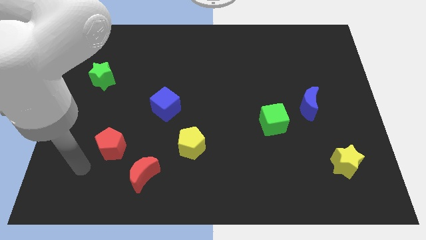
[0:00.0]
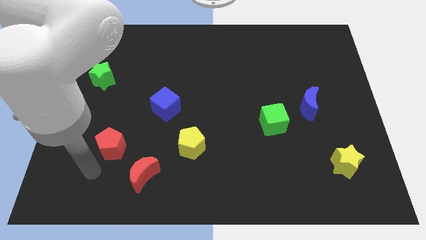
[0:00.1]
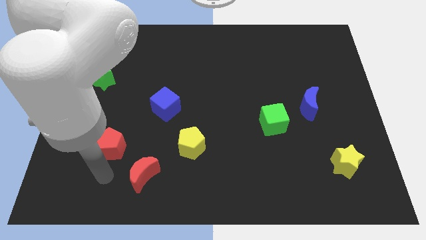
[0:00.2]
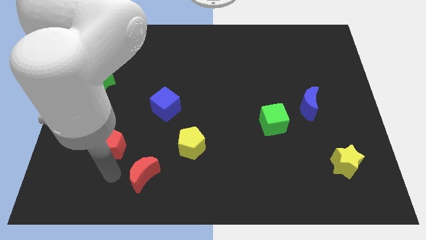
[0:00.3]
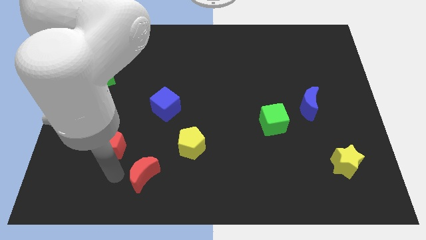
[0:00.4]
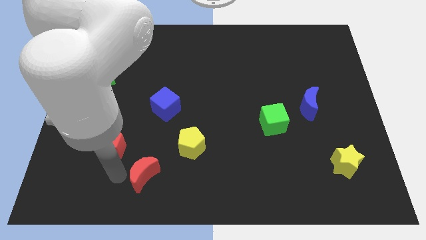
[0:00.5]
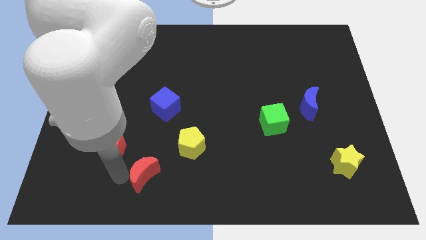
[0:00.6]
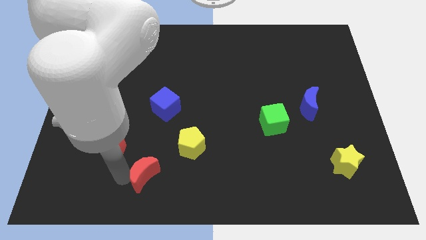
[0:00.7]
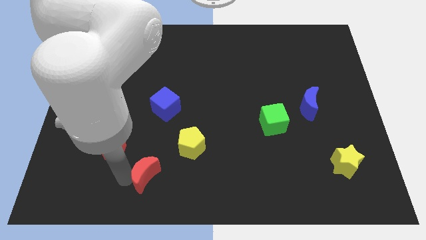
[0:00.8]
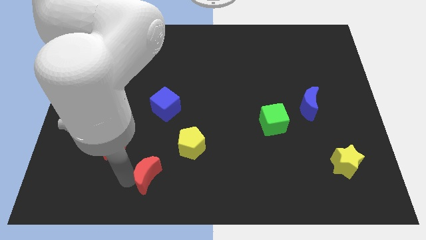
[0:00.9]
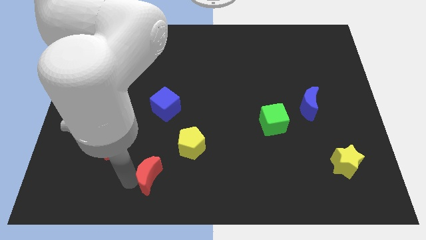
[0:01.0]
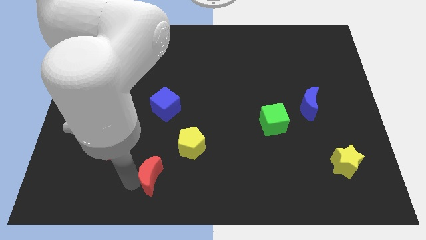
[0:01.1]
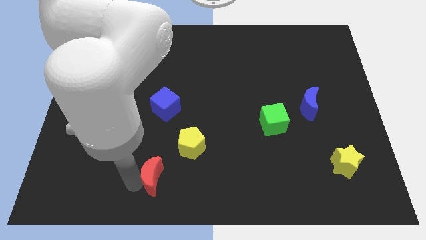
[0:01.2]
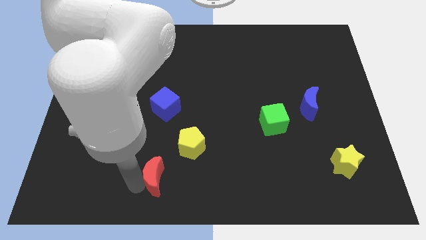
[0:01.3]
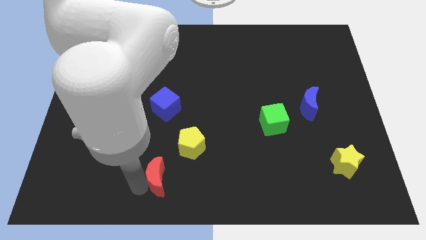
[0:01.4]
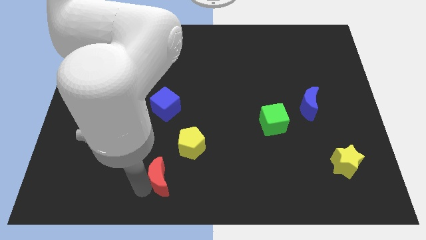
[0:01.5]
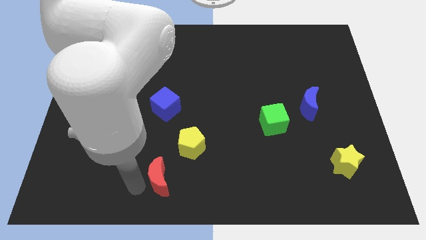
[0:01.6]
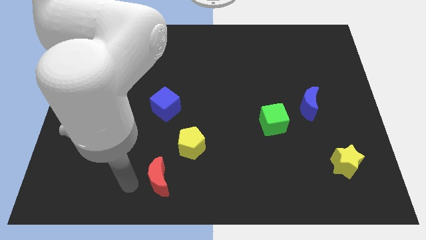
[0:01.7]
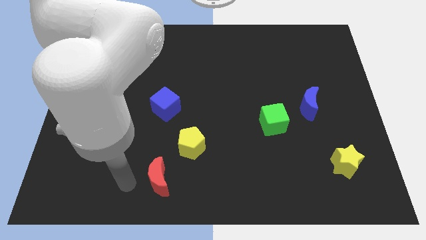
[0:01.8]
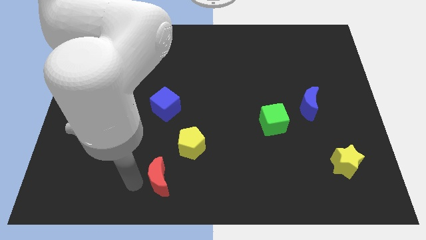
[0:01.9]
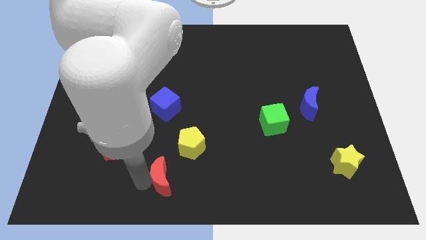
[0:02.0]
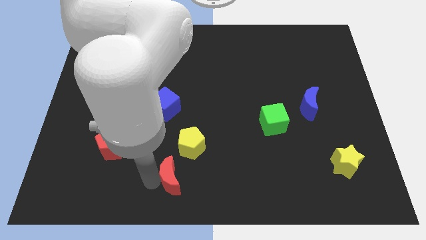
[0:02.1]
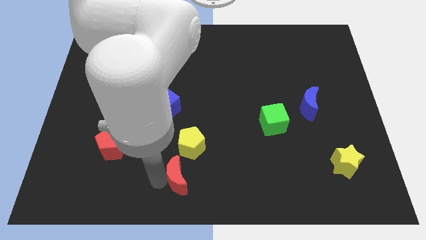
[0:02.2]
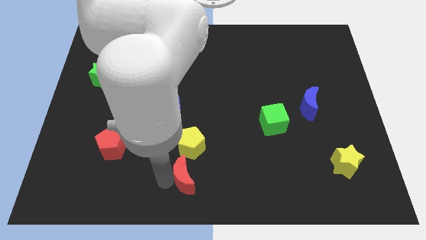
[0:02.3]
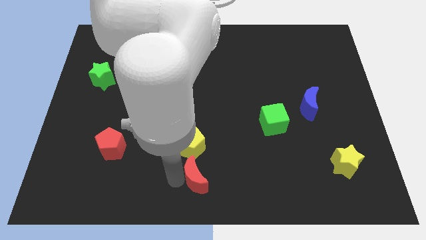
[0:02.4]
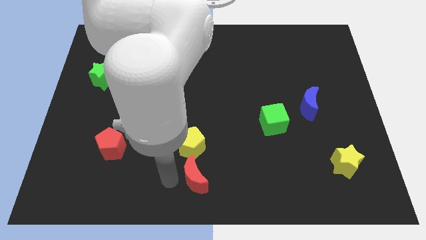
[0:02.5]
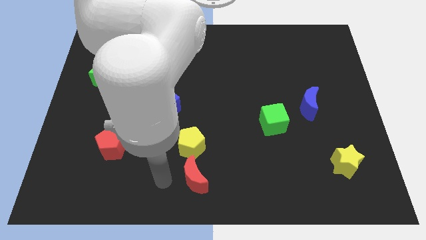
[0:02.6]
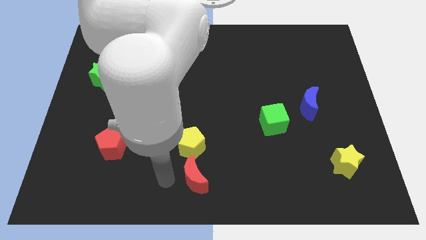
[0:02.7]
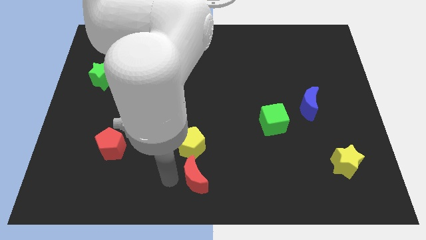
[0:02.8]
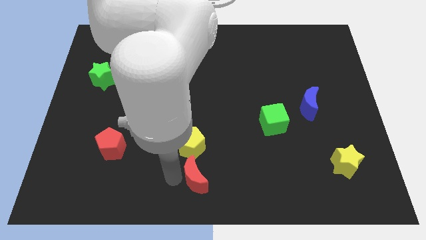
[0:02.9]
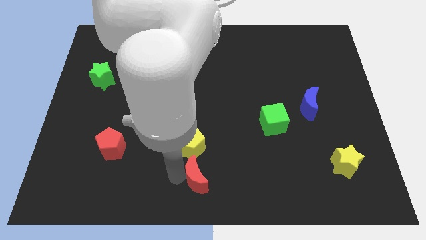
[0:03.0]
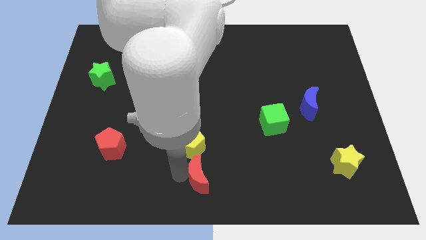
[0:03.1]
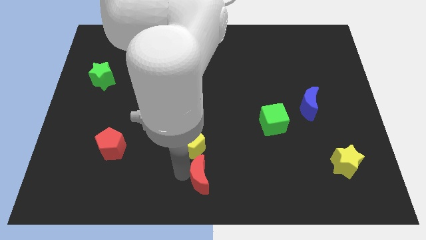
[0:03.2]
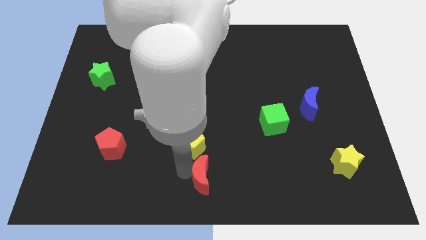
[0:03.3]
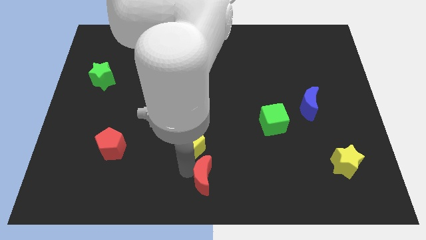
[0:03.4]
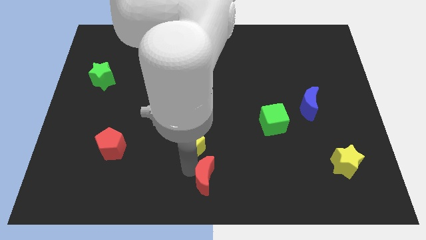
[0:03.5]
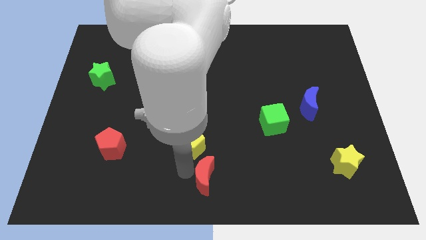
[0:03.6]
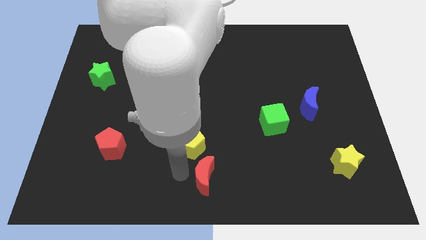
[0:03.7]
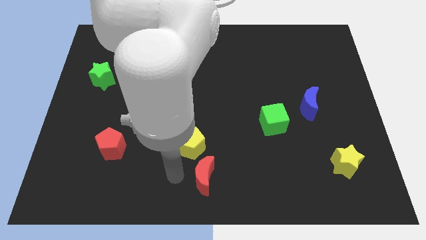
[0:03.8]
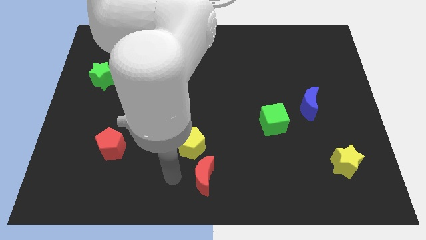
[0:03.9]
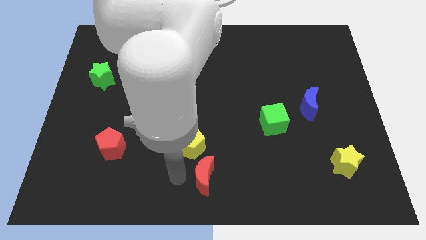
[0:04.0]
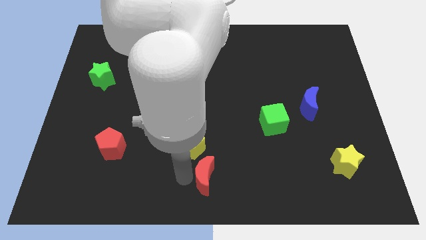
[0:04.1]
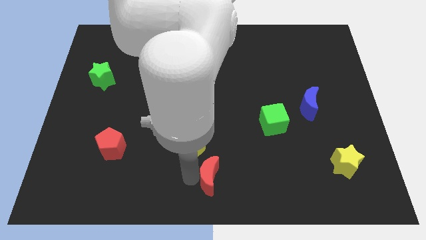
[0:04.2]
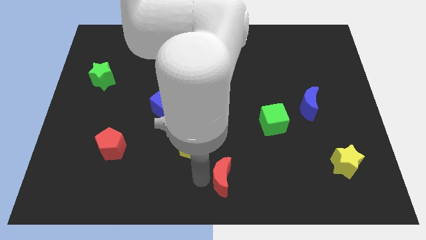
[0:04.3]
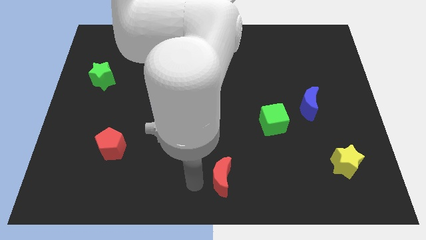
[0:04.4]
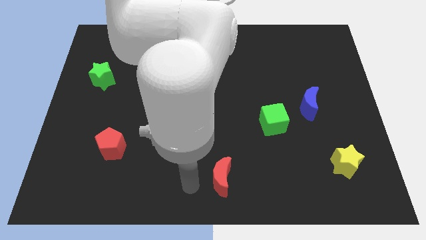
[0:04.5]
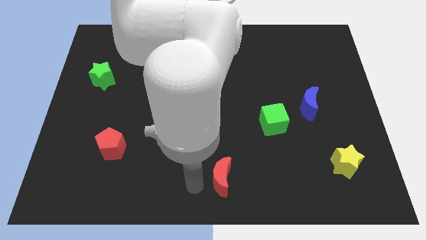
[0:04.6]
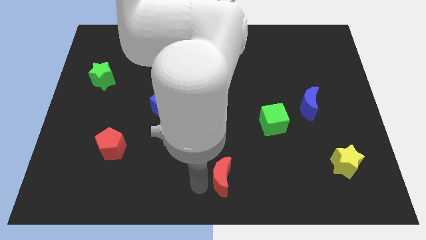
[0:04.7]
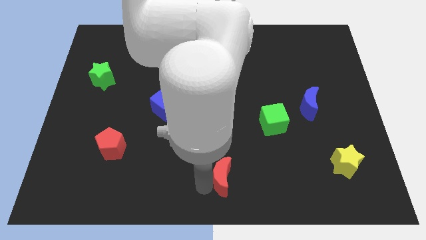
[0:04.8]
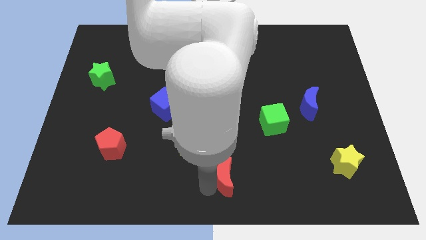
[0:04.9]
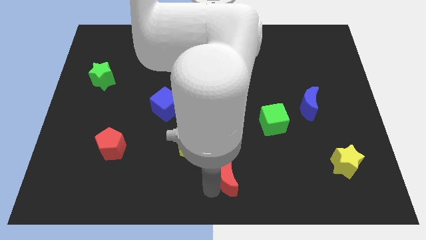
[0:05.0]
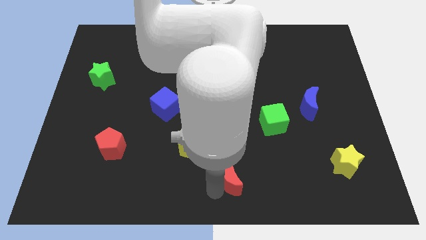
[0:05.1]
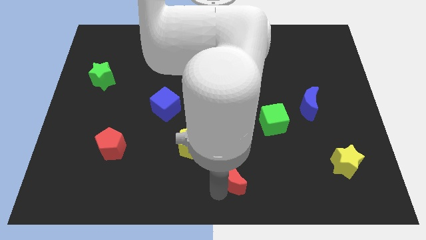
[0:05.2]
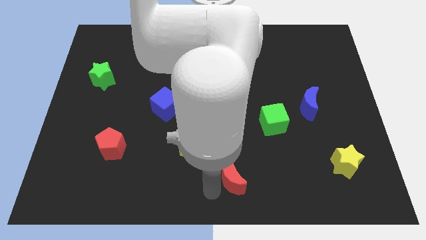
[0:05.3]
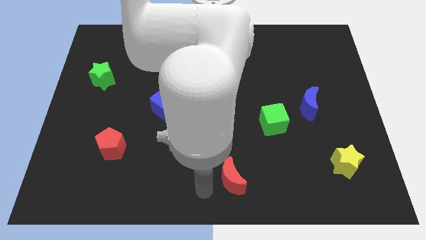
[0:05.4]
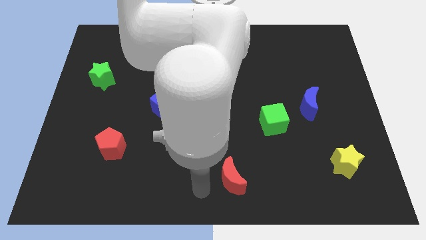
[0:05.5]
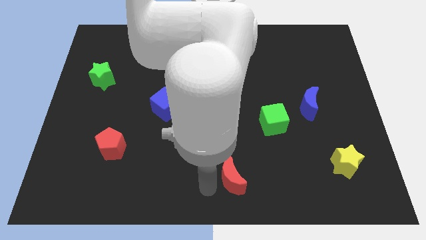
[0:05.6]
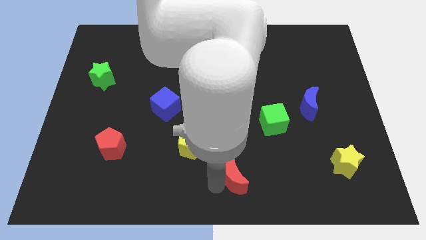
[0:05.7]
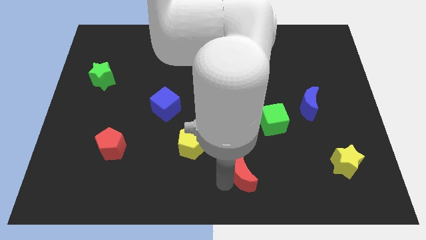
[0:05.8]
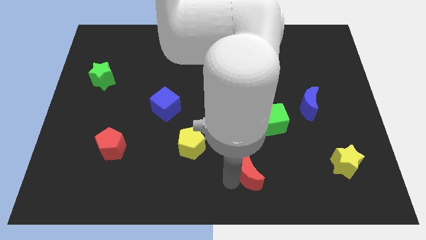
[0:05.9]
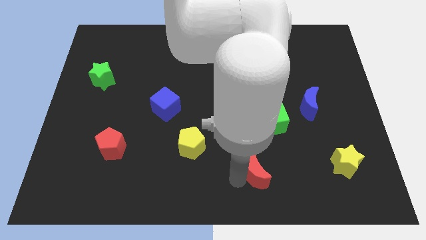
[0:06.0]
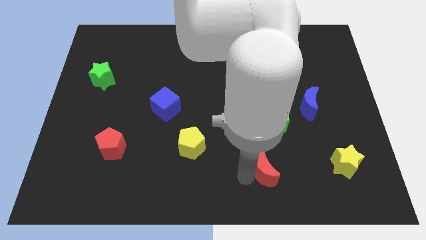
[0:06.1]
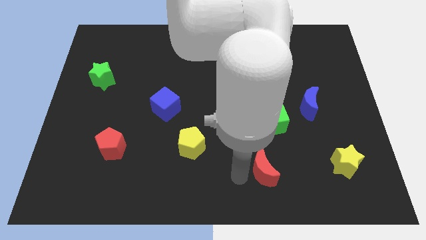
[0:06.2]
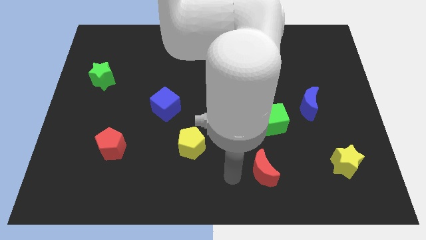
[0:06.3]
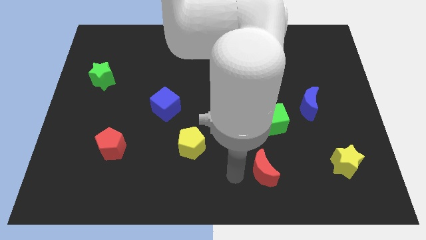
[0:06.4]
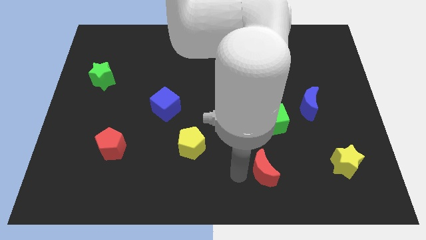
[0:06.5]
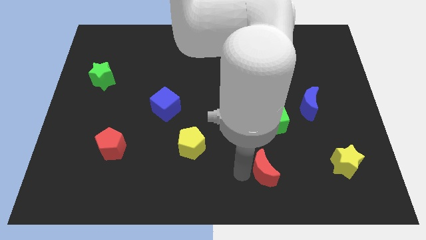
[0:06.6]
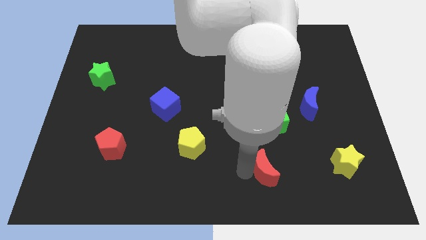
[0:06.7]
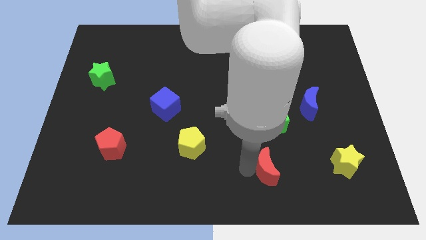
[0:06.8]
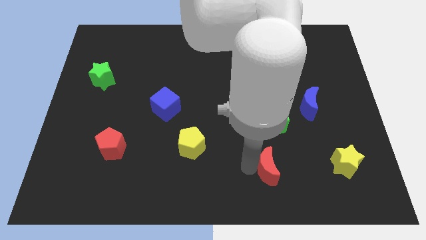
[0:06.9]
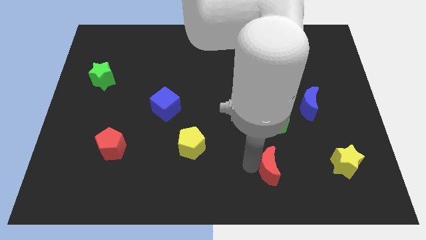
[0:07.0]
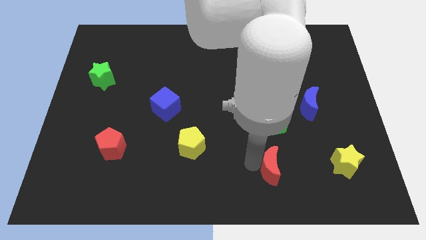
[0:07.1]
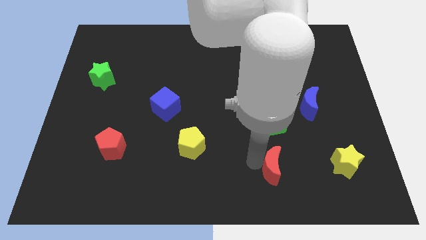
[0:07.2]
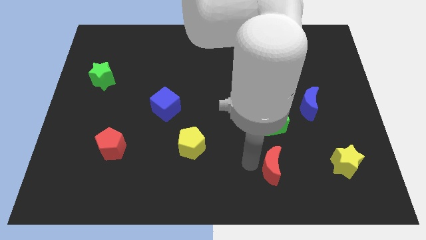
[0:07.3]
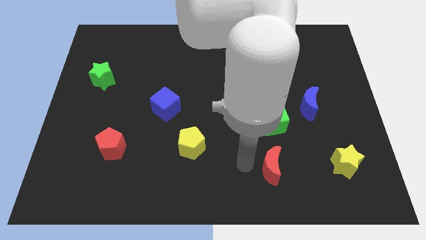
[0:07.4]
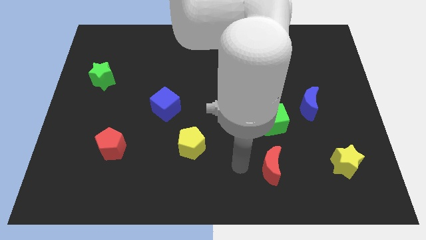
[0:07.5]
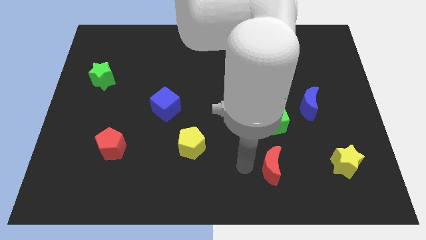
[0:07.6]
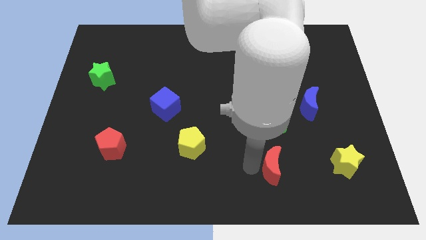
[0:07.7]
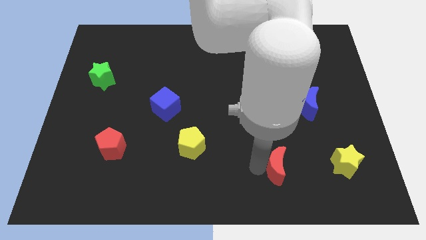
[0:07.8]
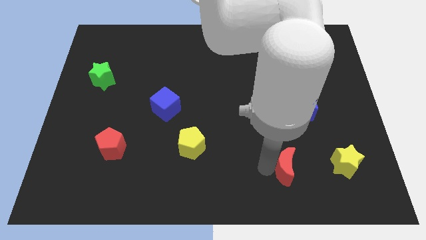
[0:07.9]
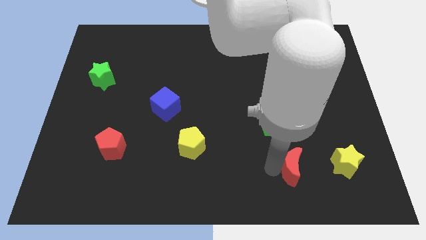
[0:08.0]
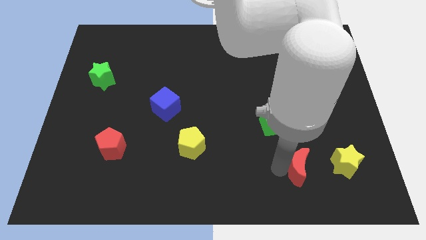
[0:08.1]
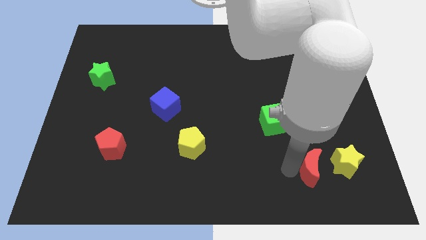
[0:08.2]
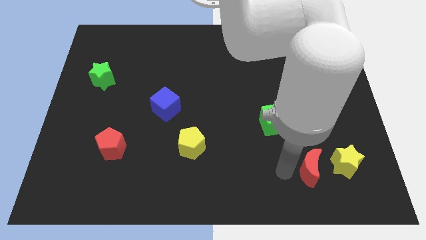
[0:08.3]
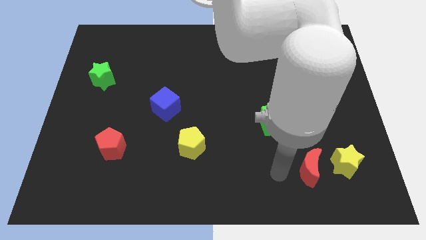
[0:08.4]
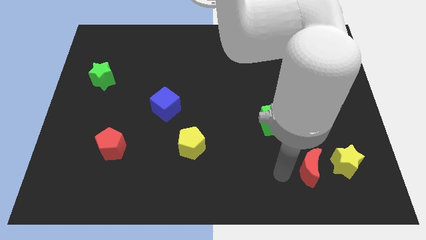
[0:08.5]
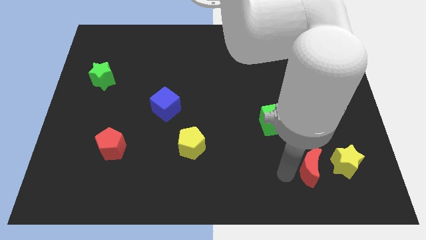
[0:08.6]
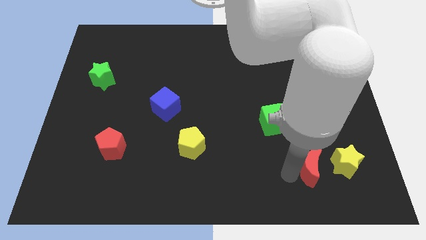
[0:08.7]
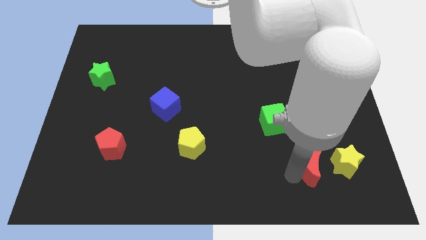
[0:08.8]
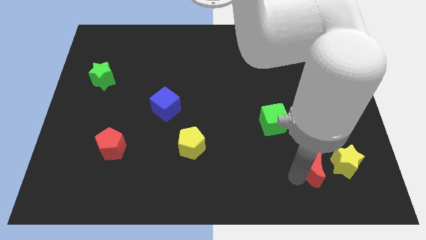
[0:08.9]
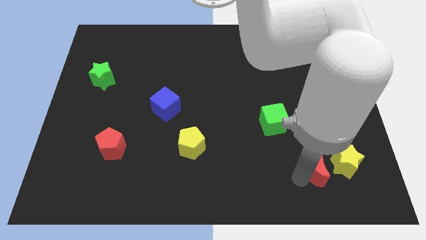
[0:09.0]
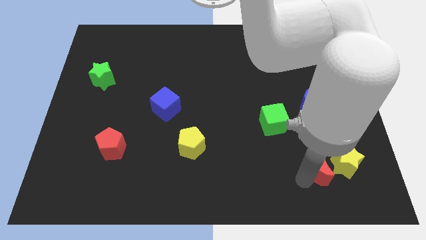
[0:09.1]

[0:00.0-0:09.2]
push the red moon next to the yellow star
